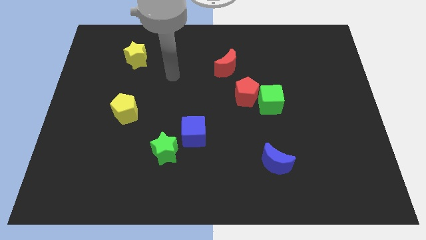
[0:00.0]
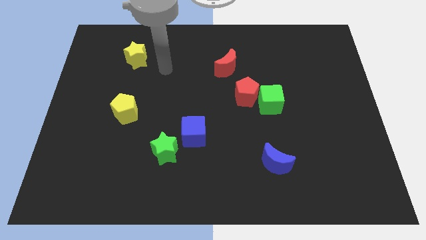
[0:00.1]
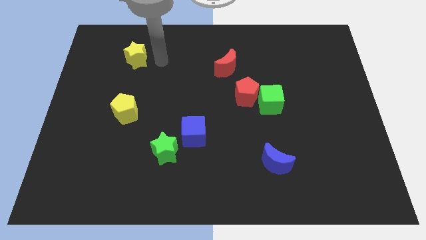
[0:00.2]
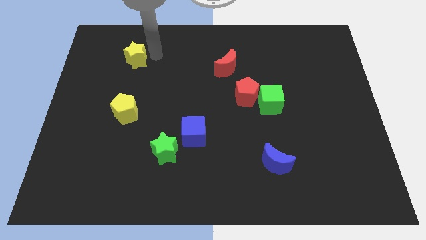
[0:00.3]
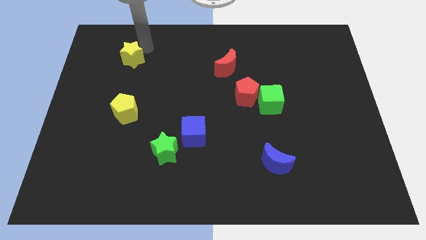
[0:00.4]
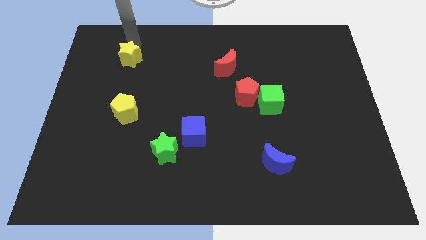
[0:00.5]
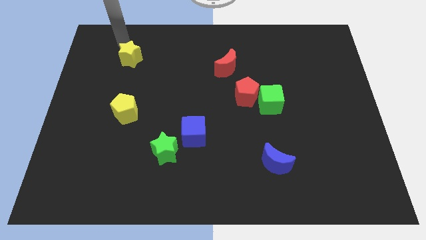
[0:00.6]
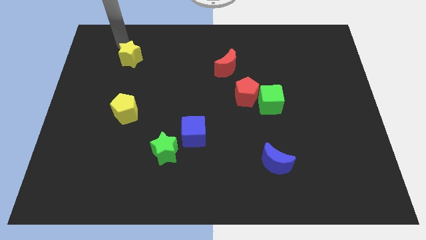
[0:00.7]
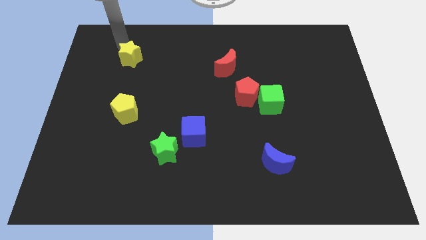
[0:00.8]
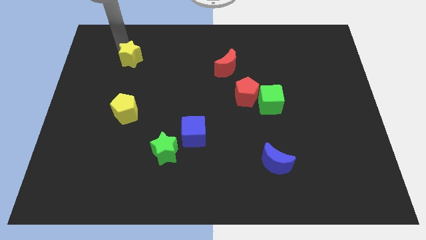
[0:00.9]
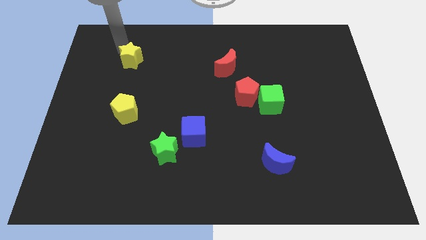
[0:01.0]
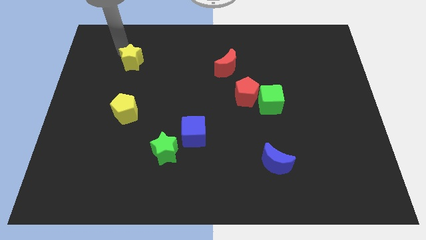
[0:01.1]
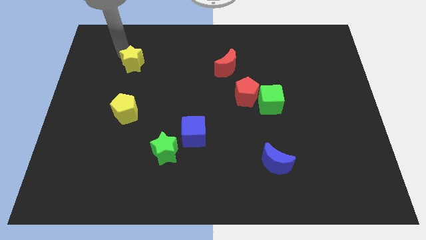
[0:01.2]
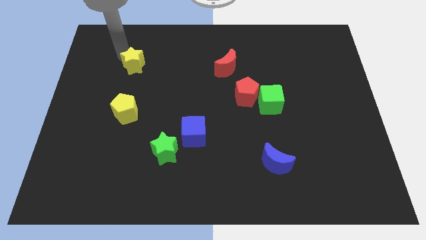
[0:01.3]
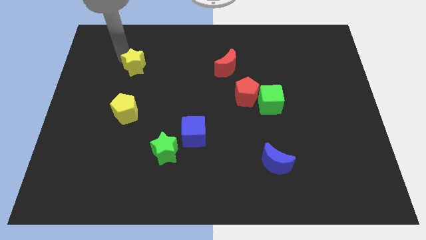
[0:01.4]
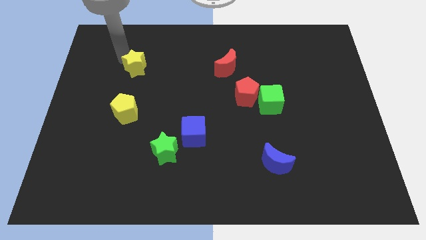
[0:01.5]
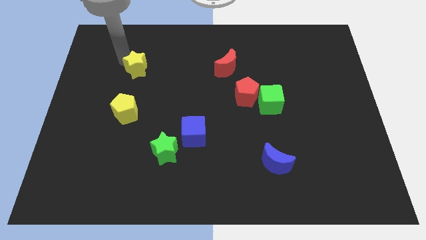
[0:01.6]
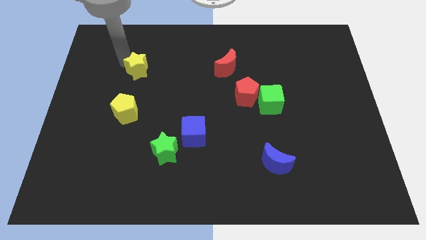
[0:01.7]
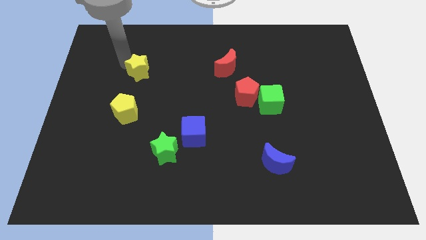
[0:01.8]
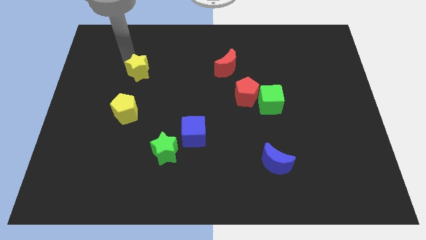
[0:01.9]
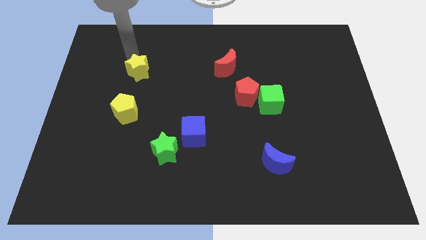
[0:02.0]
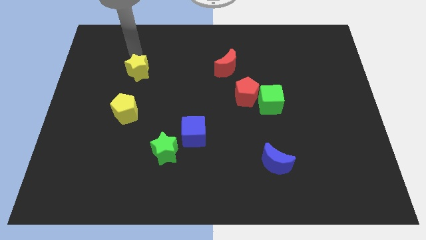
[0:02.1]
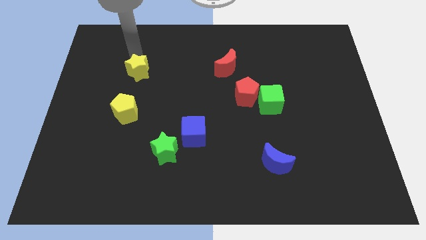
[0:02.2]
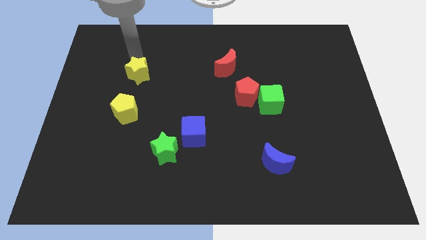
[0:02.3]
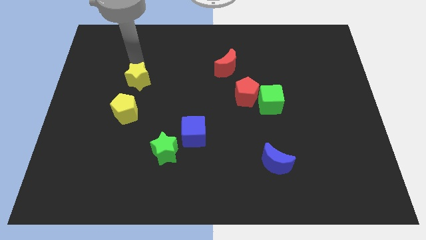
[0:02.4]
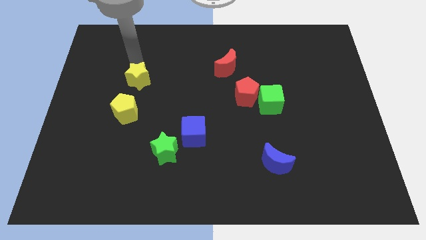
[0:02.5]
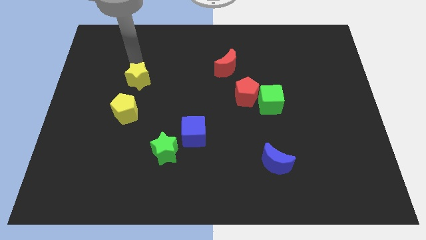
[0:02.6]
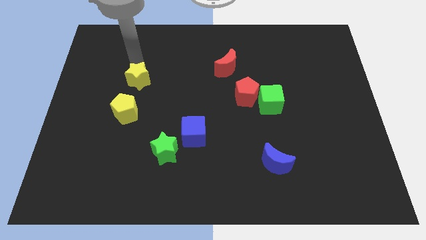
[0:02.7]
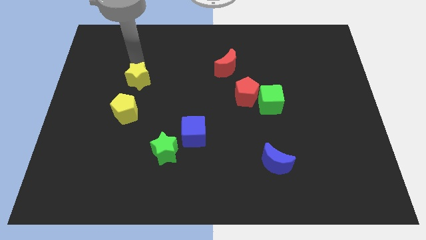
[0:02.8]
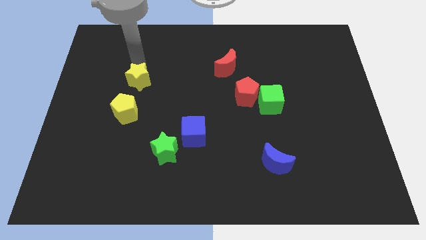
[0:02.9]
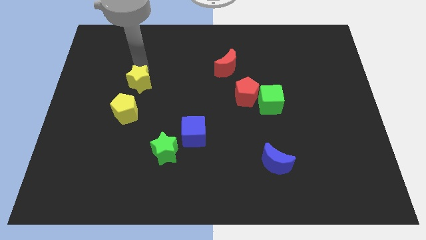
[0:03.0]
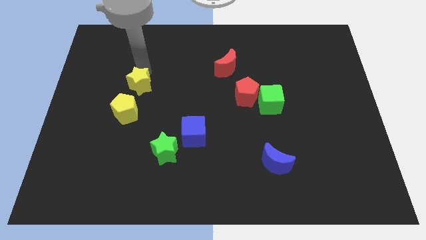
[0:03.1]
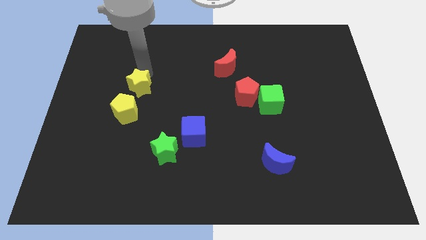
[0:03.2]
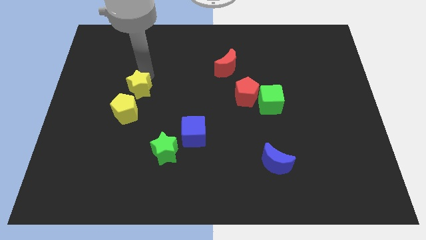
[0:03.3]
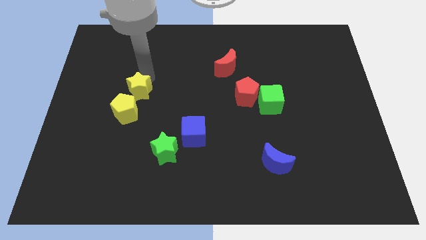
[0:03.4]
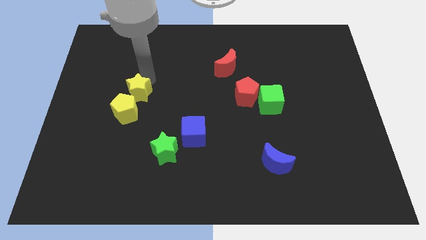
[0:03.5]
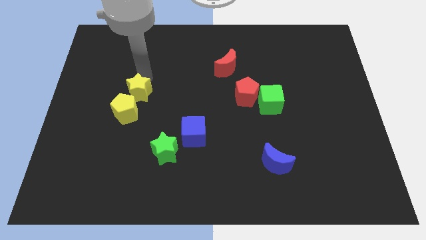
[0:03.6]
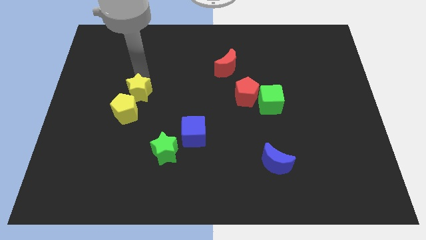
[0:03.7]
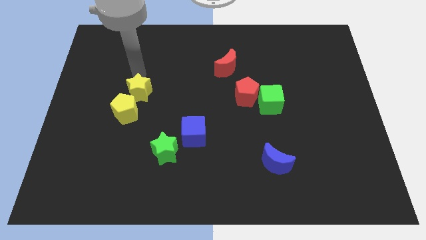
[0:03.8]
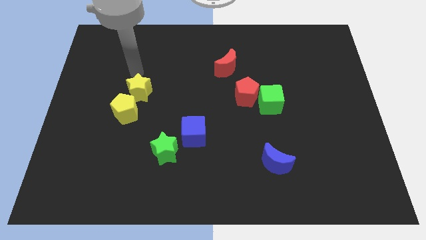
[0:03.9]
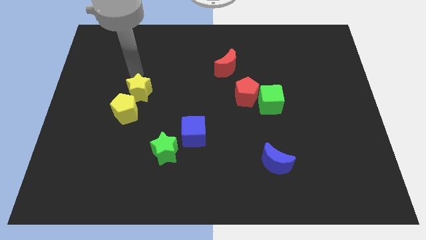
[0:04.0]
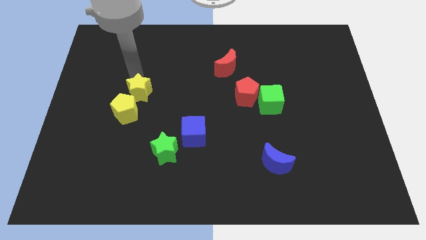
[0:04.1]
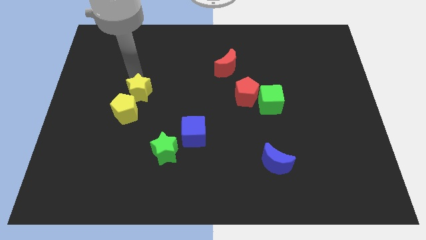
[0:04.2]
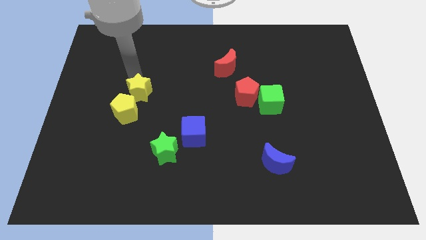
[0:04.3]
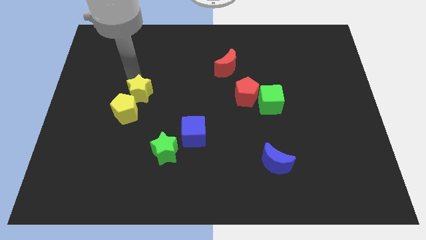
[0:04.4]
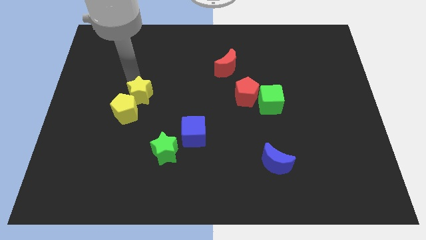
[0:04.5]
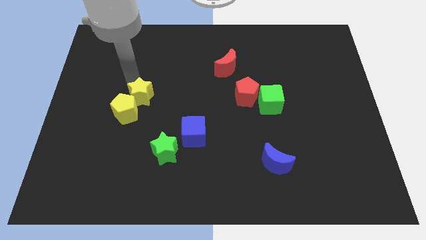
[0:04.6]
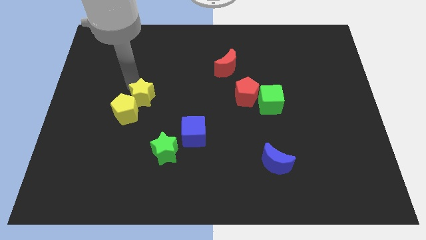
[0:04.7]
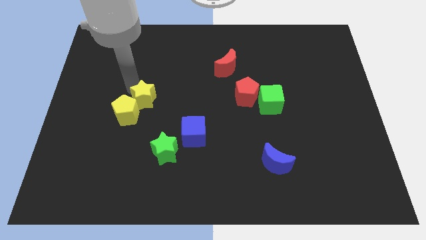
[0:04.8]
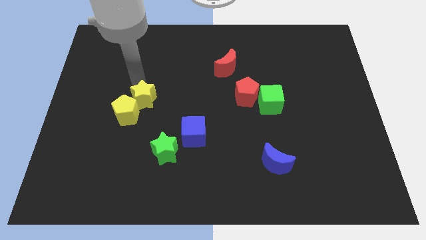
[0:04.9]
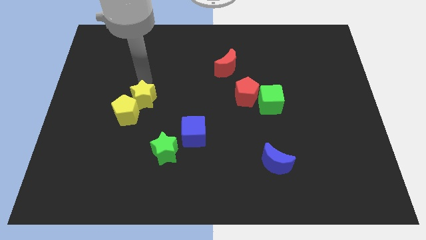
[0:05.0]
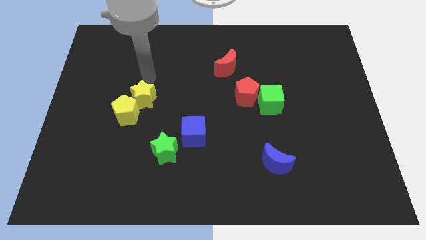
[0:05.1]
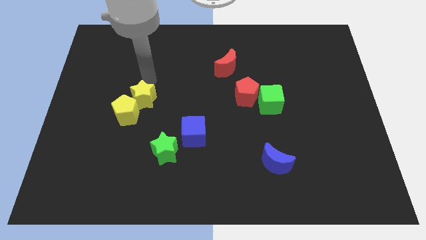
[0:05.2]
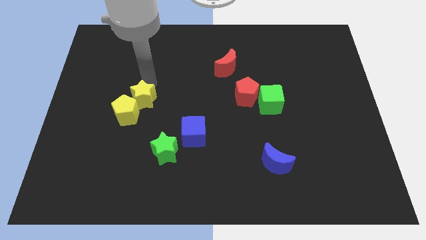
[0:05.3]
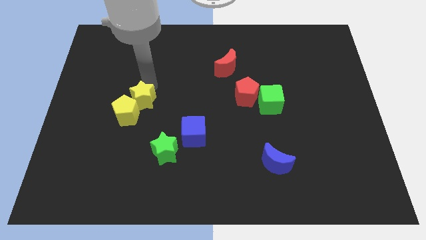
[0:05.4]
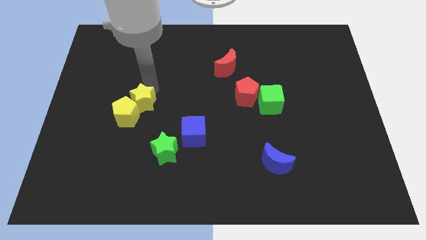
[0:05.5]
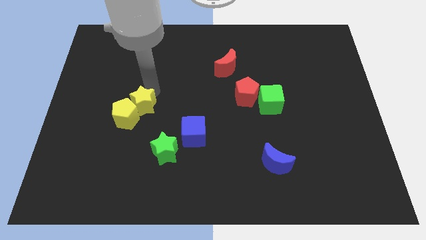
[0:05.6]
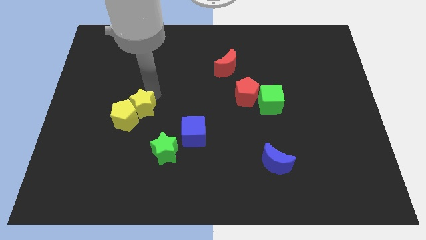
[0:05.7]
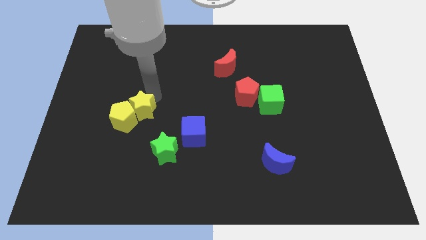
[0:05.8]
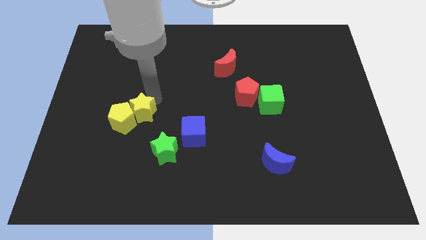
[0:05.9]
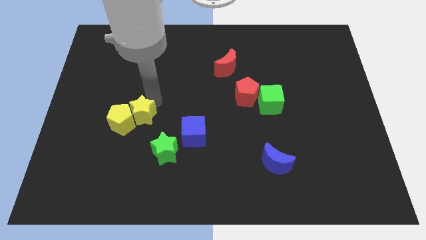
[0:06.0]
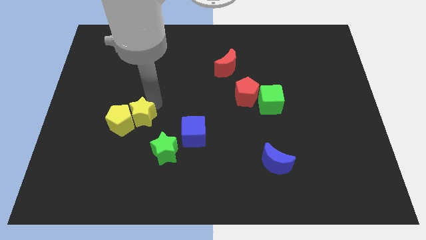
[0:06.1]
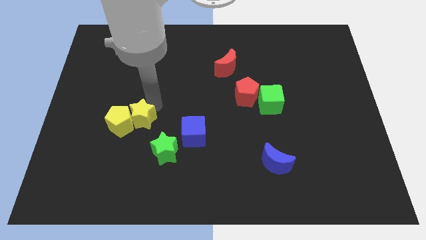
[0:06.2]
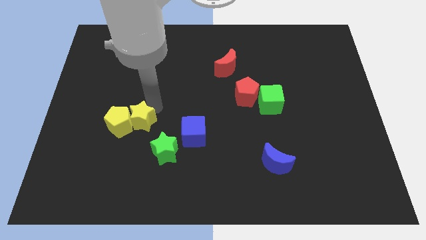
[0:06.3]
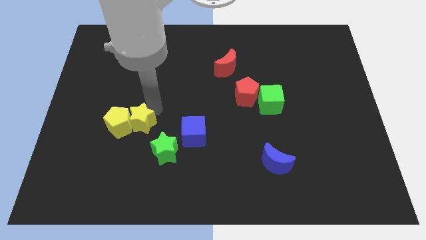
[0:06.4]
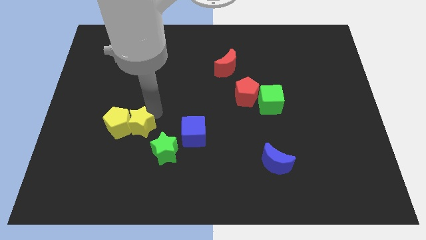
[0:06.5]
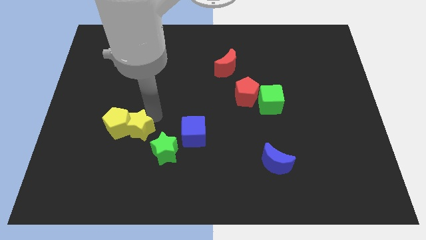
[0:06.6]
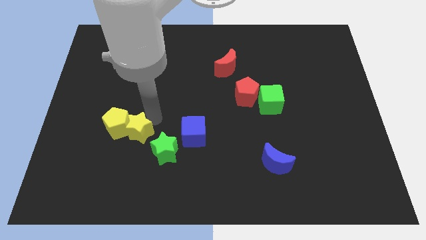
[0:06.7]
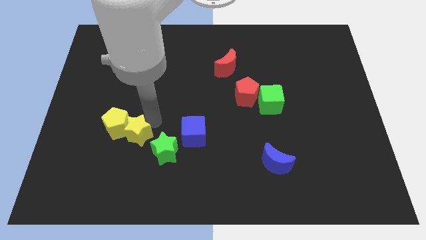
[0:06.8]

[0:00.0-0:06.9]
slide the yellow star just left of the green star
